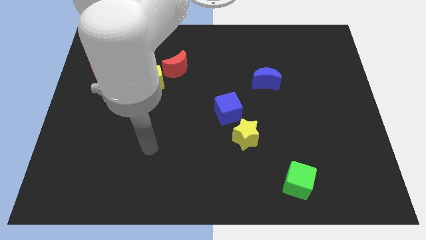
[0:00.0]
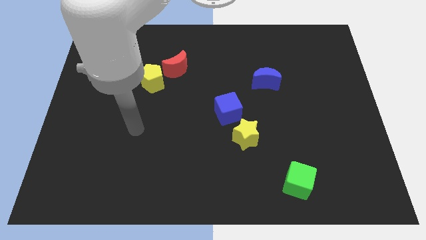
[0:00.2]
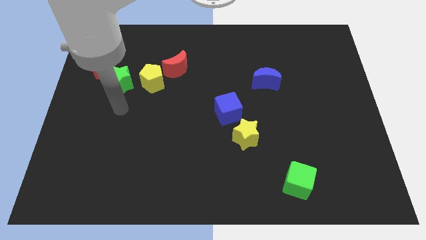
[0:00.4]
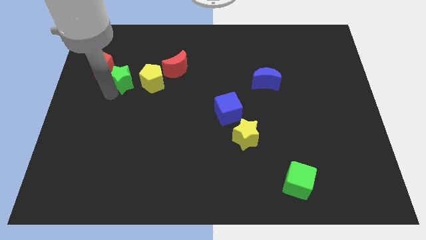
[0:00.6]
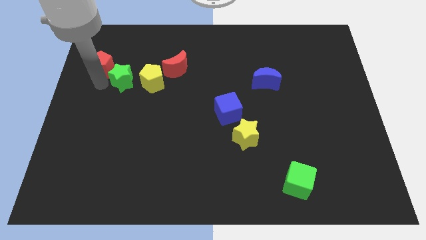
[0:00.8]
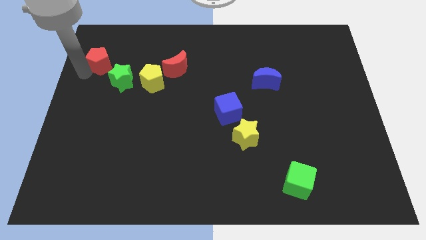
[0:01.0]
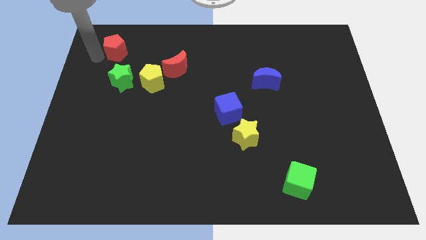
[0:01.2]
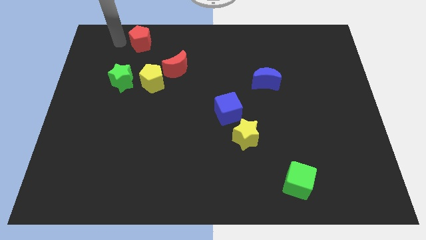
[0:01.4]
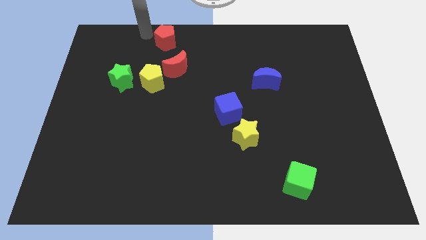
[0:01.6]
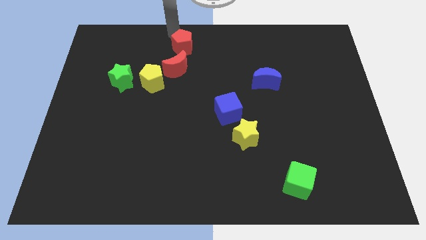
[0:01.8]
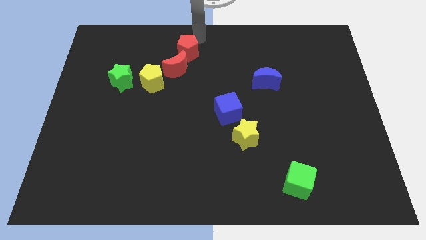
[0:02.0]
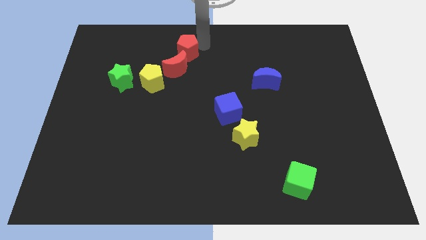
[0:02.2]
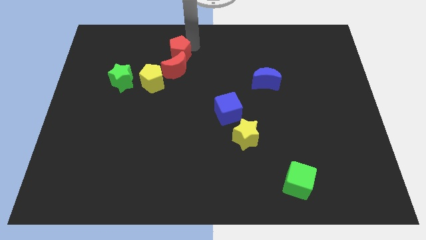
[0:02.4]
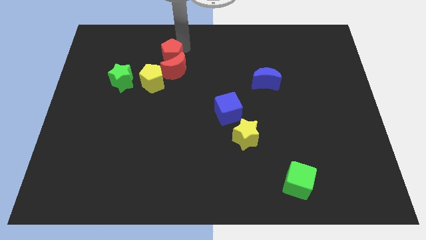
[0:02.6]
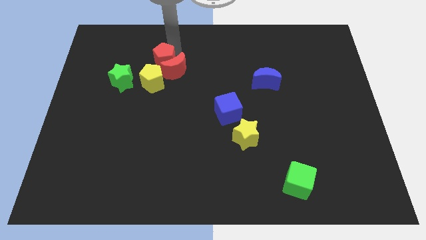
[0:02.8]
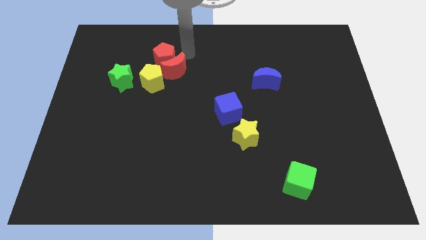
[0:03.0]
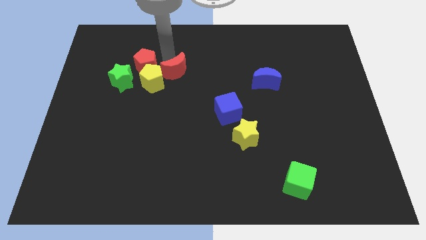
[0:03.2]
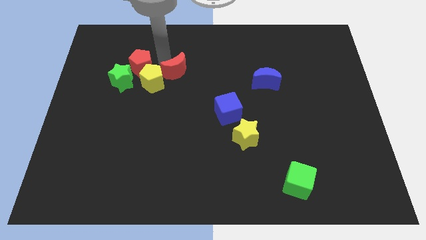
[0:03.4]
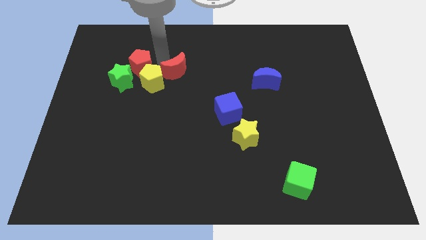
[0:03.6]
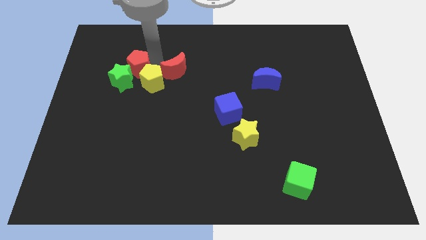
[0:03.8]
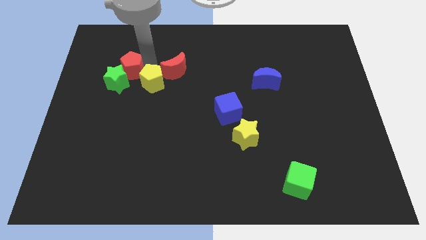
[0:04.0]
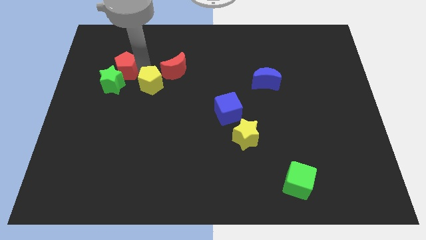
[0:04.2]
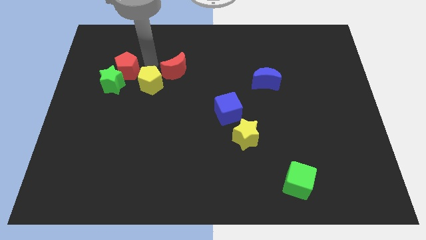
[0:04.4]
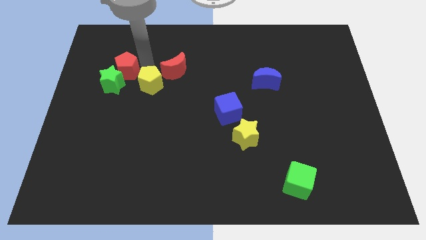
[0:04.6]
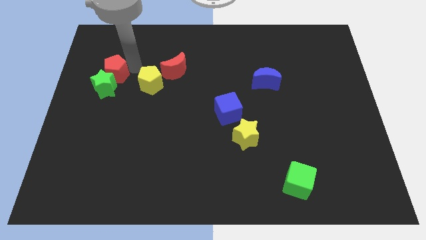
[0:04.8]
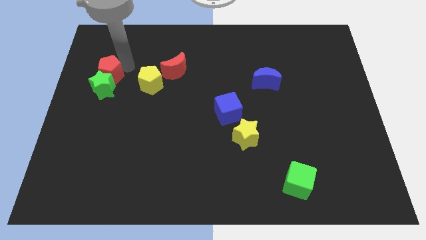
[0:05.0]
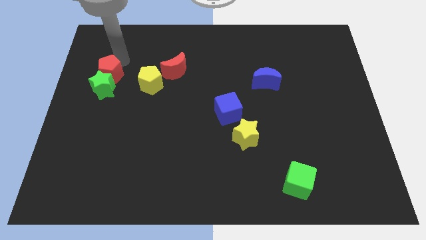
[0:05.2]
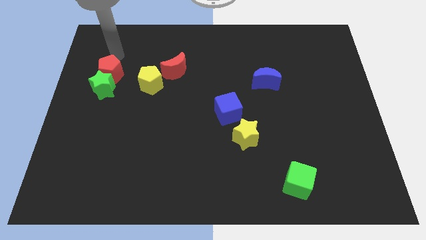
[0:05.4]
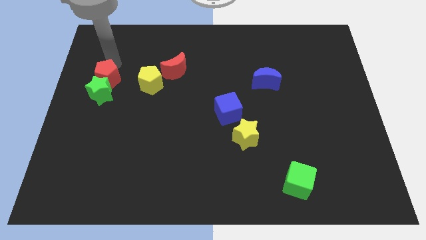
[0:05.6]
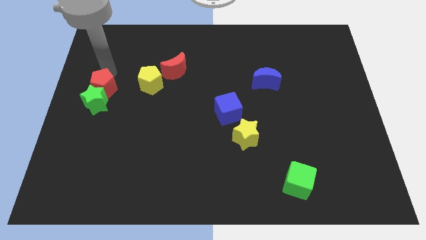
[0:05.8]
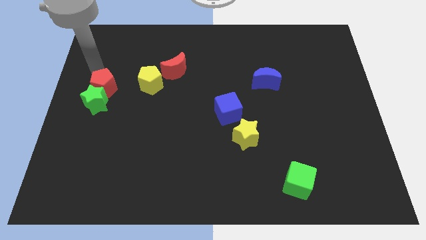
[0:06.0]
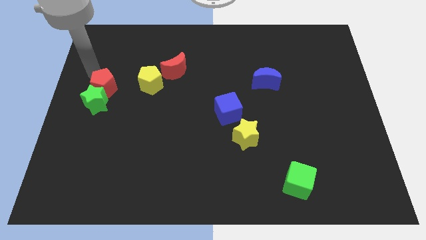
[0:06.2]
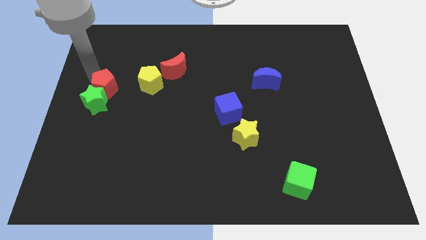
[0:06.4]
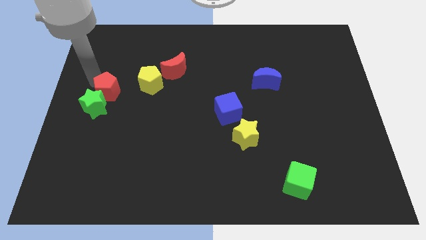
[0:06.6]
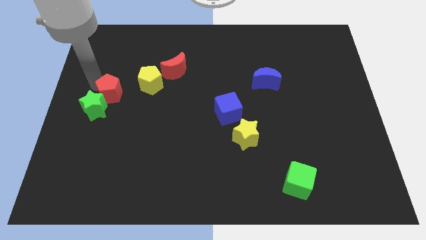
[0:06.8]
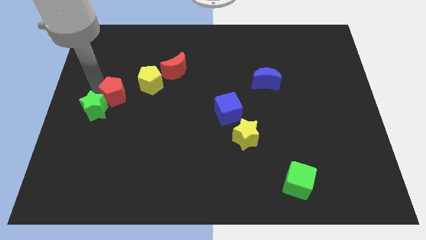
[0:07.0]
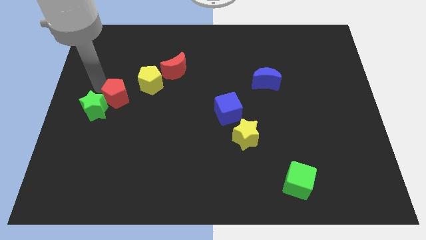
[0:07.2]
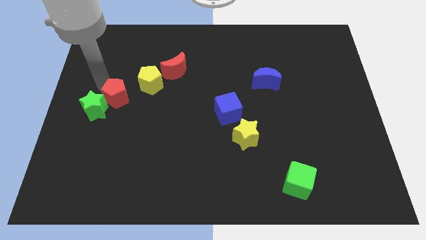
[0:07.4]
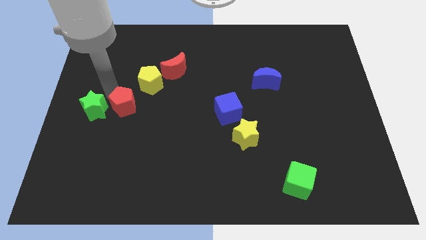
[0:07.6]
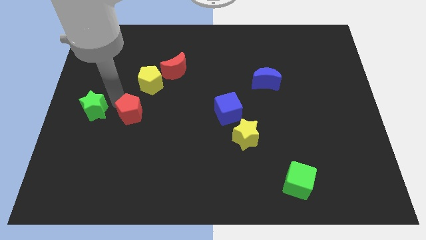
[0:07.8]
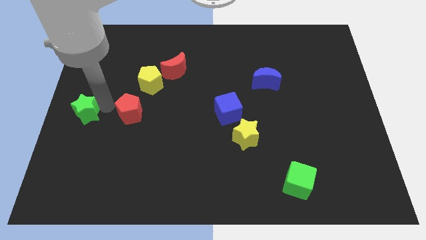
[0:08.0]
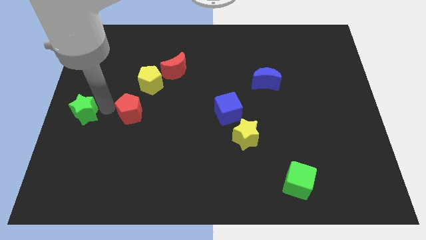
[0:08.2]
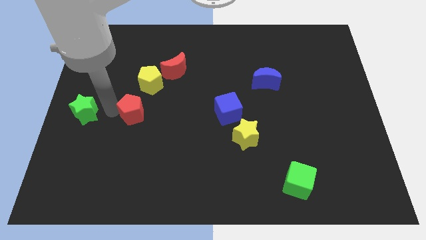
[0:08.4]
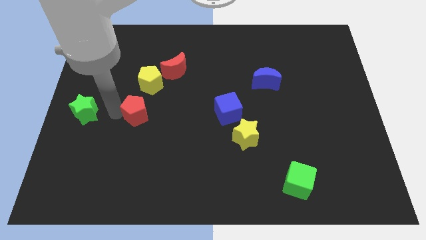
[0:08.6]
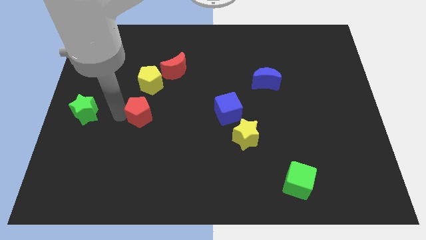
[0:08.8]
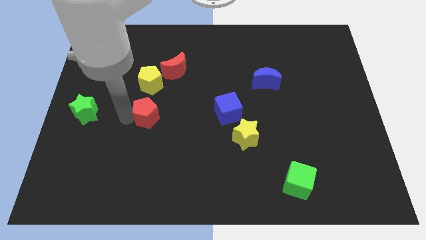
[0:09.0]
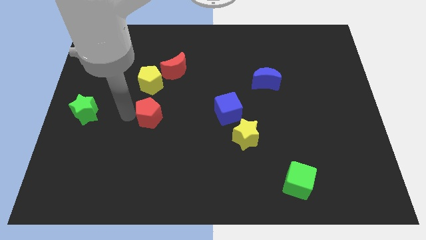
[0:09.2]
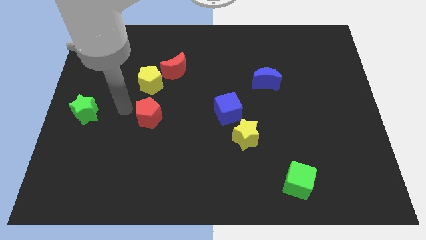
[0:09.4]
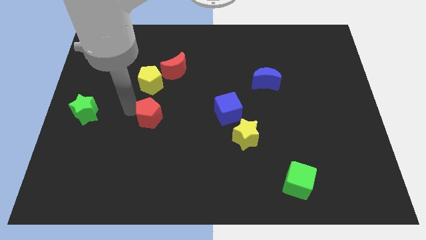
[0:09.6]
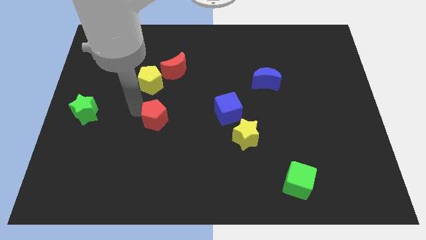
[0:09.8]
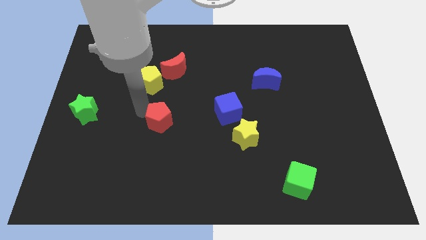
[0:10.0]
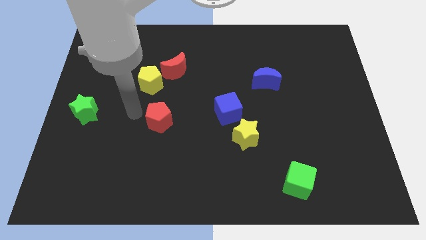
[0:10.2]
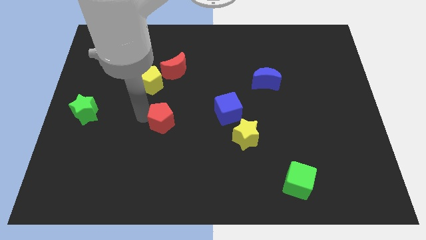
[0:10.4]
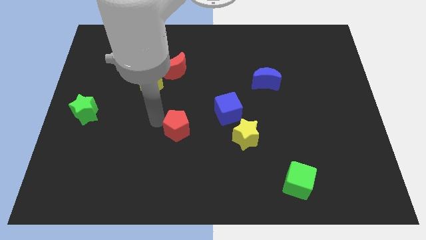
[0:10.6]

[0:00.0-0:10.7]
slide the red pentagon to the left of the yellow star

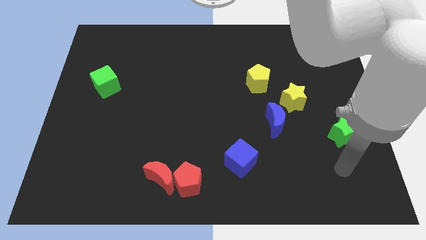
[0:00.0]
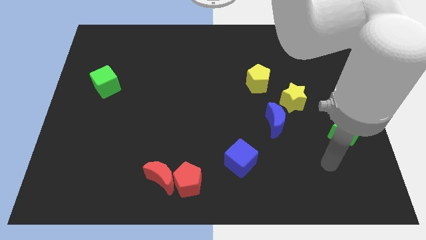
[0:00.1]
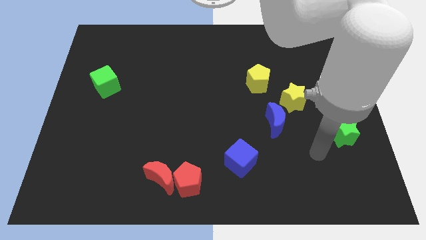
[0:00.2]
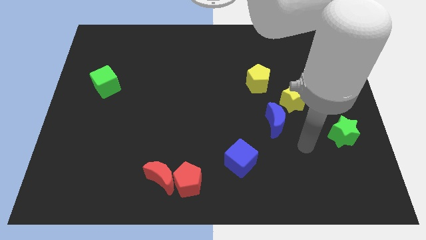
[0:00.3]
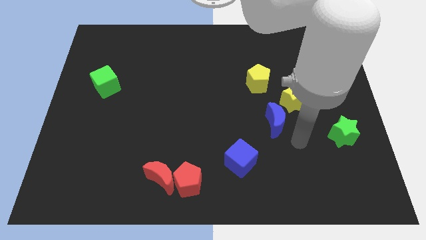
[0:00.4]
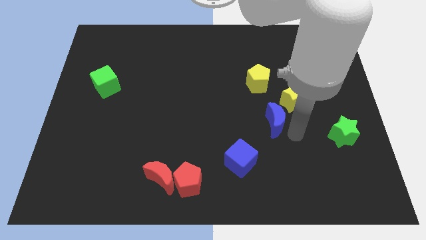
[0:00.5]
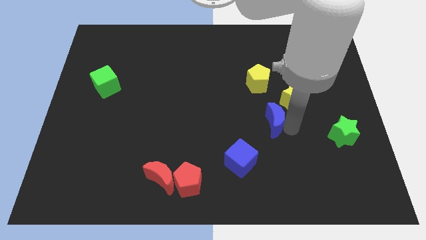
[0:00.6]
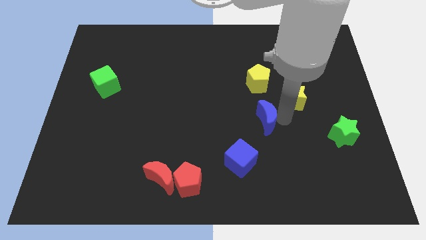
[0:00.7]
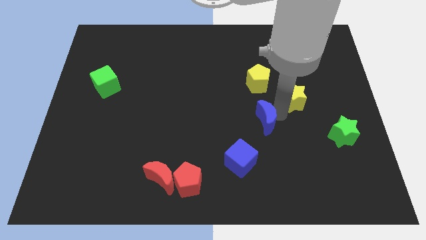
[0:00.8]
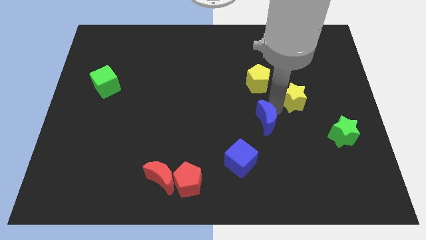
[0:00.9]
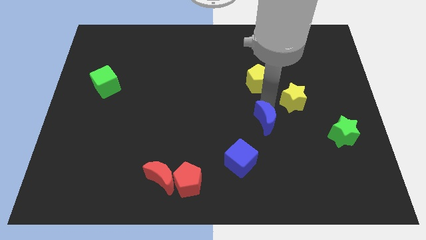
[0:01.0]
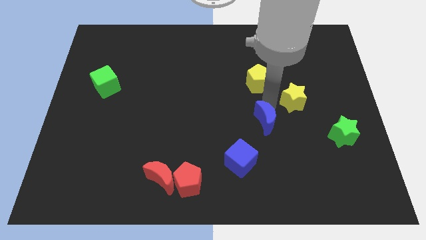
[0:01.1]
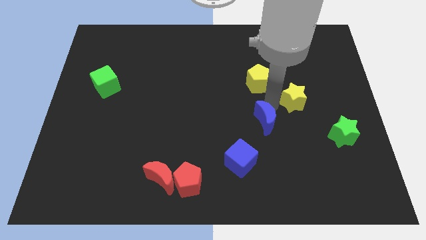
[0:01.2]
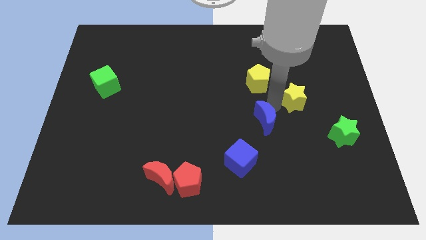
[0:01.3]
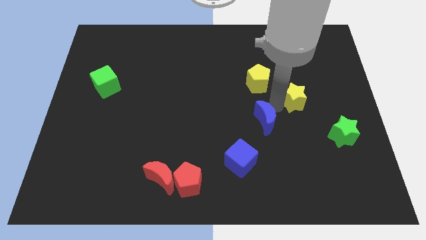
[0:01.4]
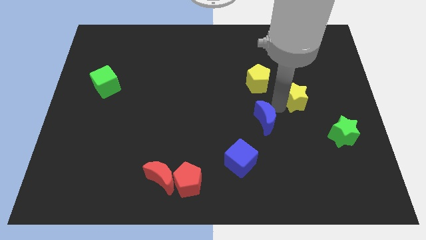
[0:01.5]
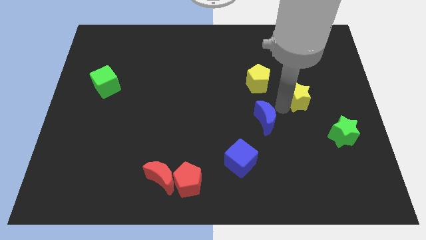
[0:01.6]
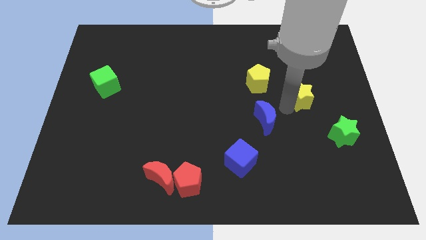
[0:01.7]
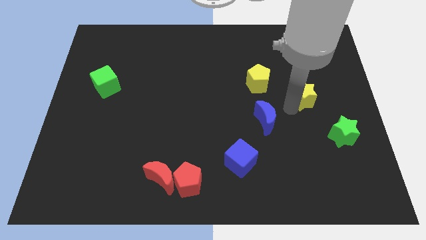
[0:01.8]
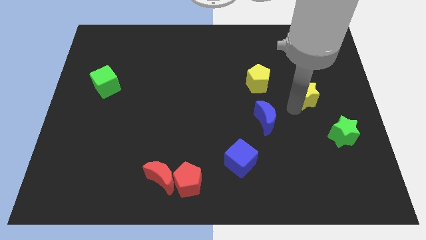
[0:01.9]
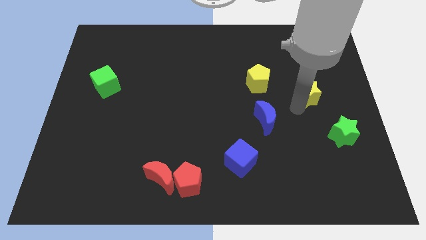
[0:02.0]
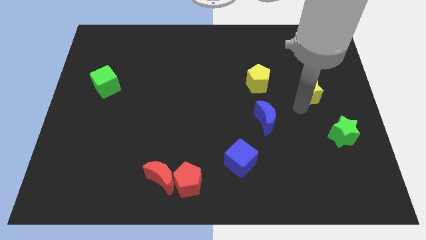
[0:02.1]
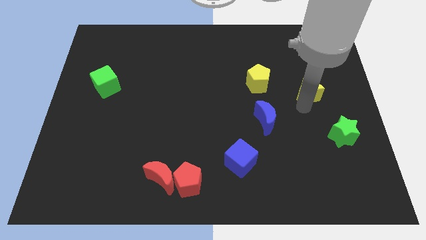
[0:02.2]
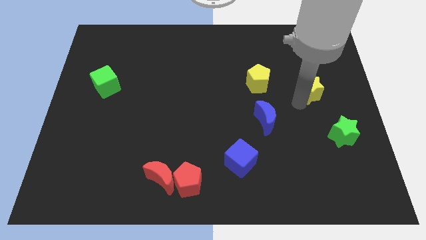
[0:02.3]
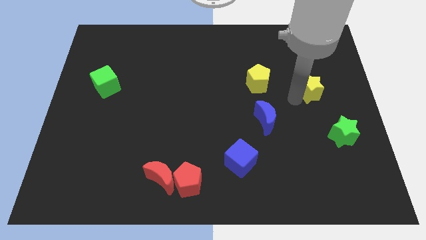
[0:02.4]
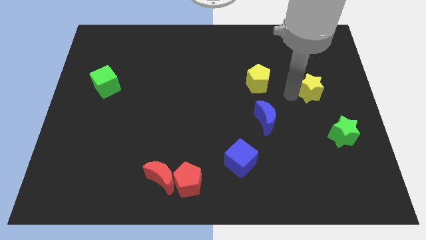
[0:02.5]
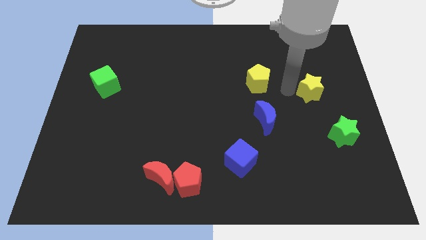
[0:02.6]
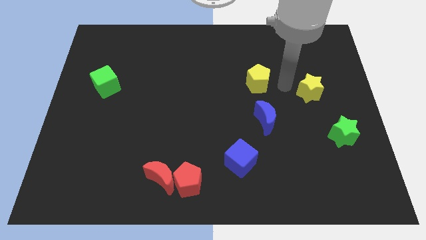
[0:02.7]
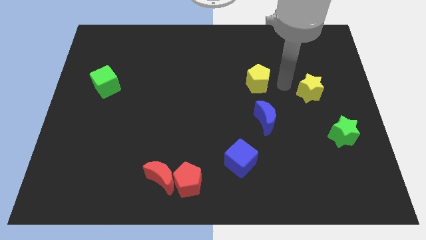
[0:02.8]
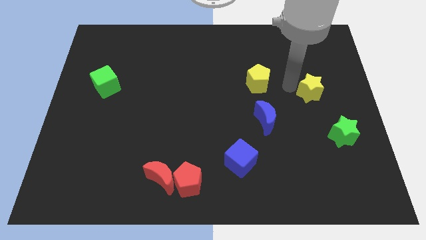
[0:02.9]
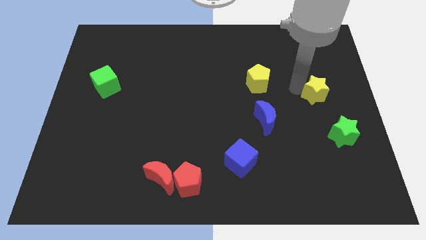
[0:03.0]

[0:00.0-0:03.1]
move the yellow star to the top of the green star
